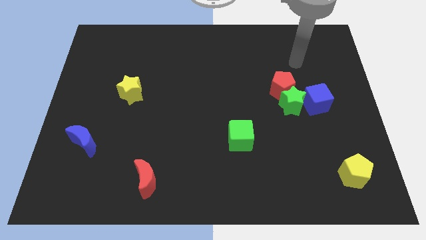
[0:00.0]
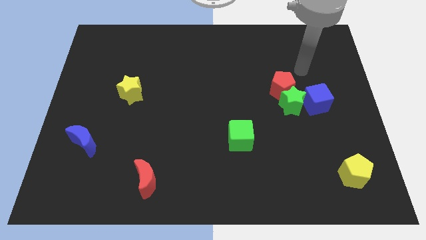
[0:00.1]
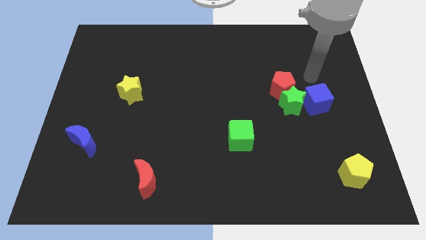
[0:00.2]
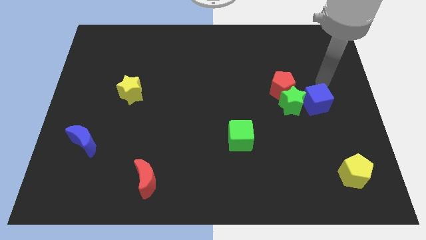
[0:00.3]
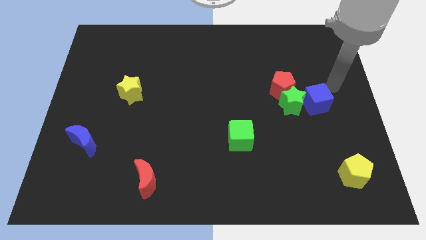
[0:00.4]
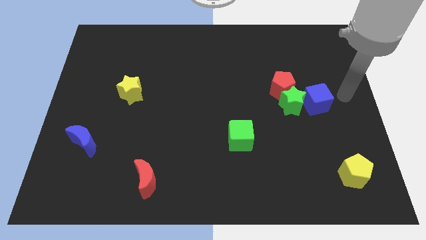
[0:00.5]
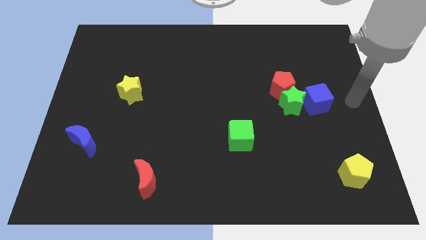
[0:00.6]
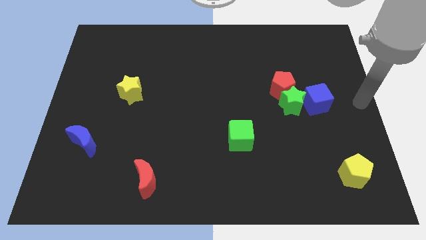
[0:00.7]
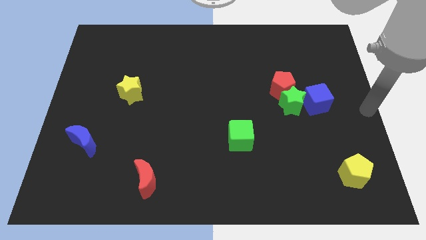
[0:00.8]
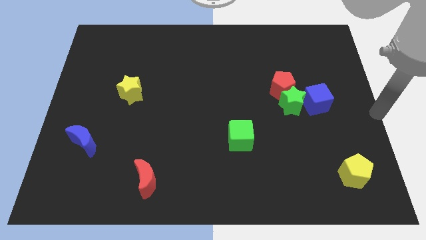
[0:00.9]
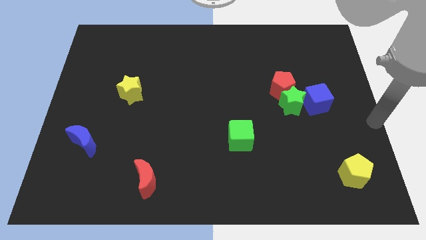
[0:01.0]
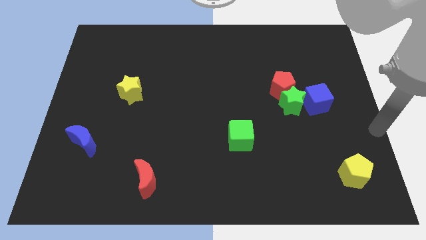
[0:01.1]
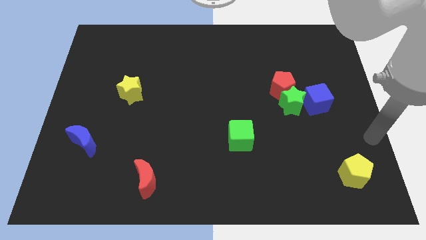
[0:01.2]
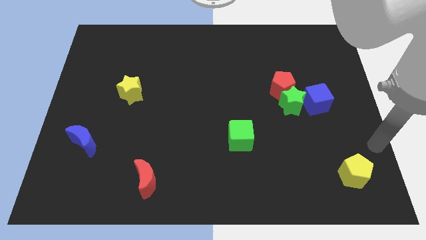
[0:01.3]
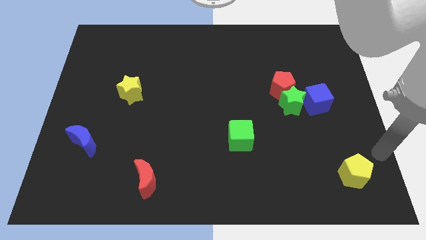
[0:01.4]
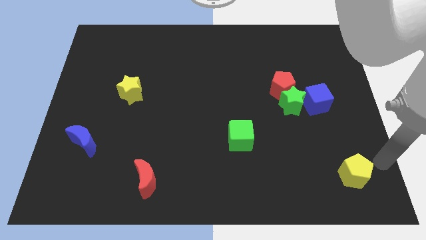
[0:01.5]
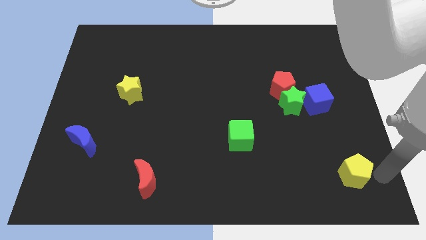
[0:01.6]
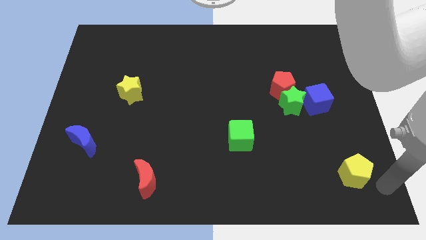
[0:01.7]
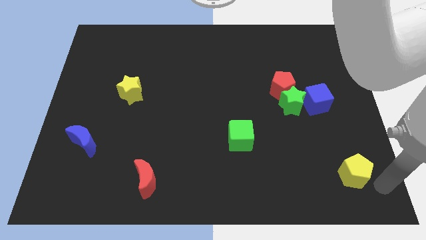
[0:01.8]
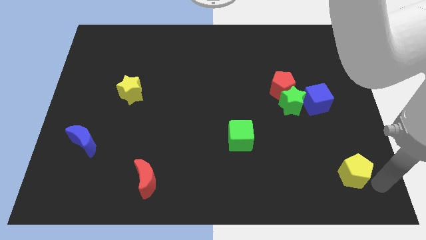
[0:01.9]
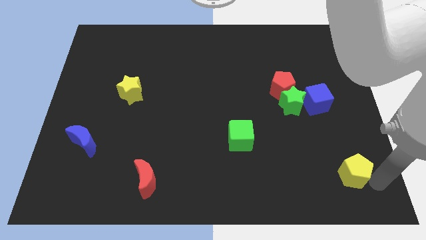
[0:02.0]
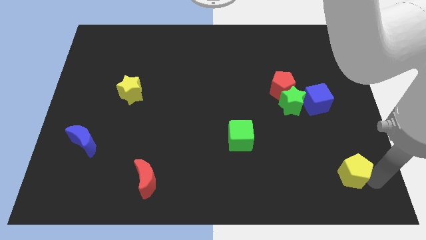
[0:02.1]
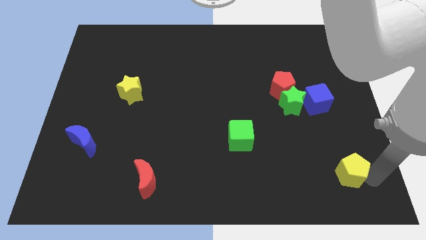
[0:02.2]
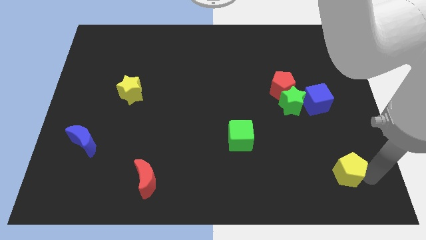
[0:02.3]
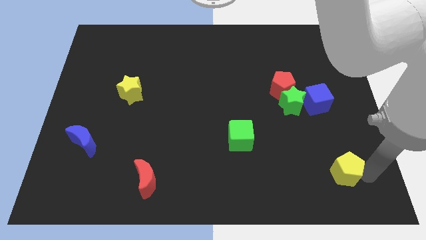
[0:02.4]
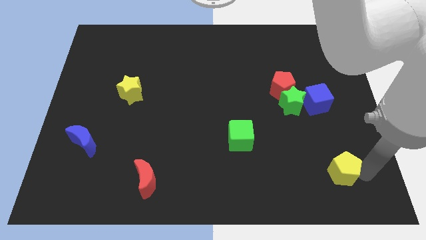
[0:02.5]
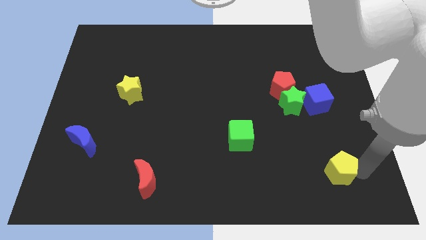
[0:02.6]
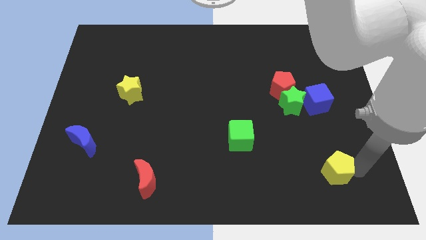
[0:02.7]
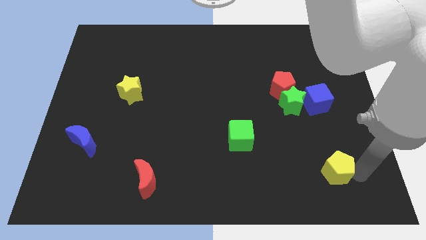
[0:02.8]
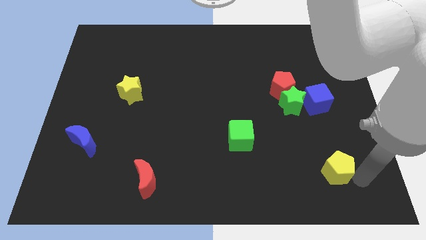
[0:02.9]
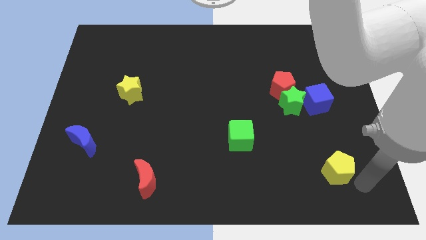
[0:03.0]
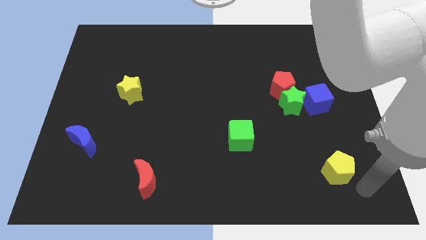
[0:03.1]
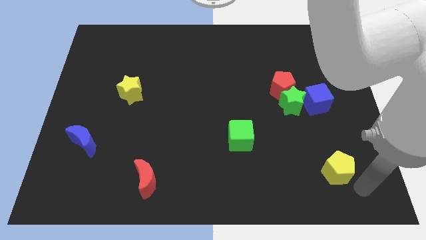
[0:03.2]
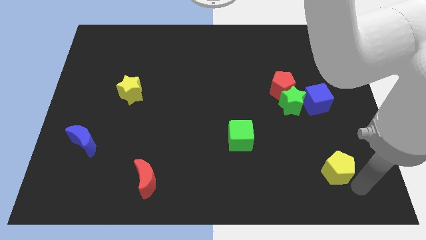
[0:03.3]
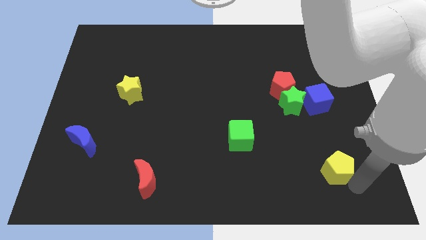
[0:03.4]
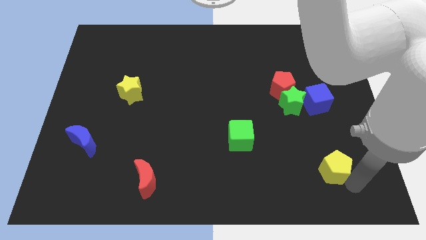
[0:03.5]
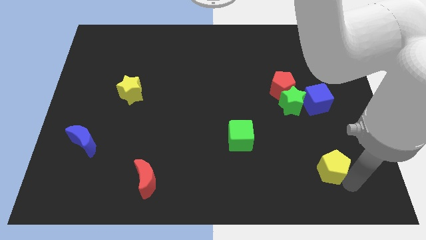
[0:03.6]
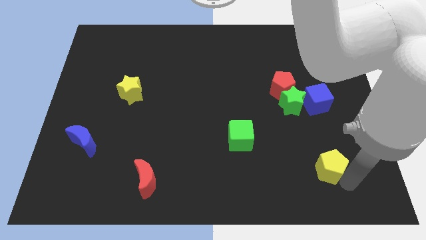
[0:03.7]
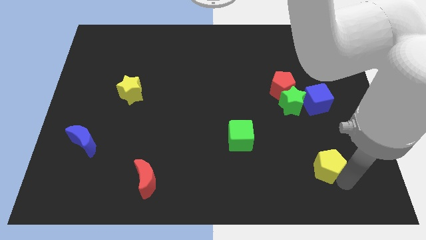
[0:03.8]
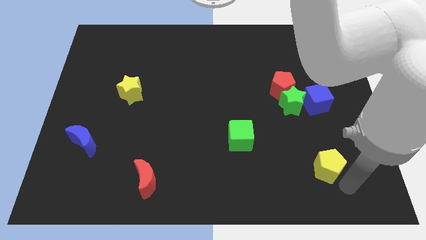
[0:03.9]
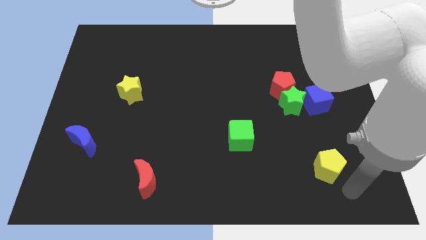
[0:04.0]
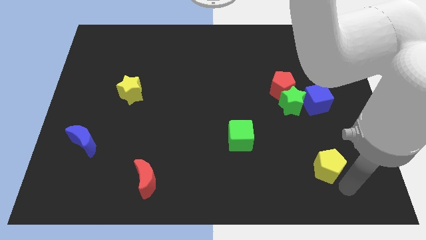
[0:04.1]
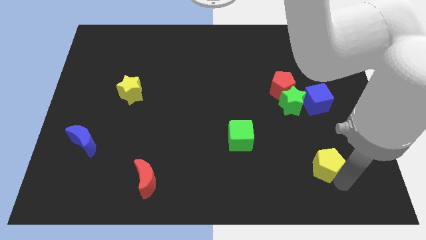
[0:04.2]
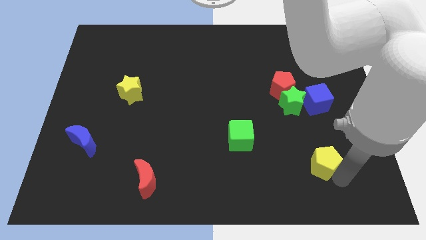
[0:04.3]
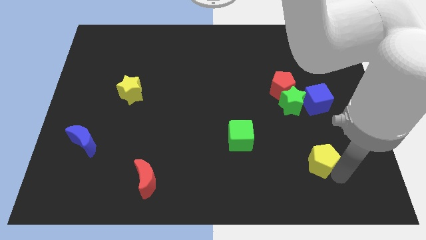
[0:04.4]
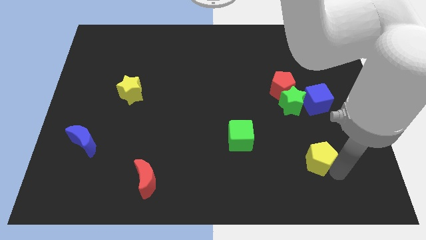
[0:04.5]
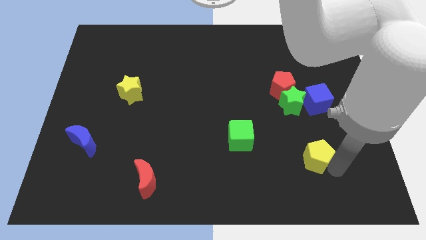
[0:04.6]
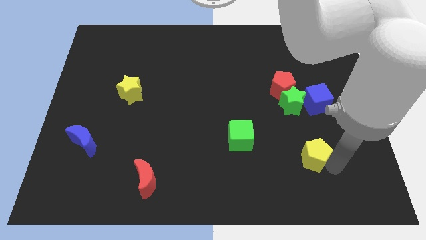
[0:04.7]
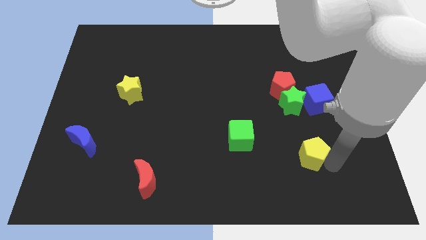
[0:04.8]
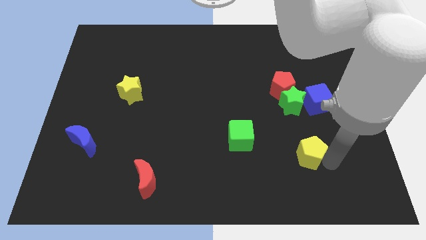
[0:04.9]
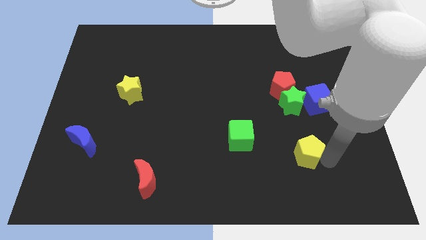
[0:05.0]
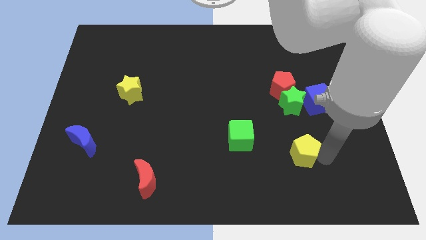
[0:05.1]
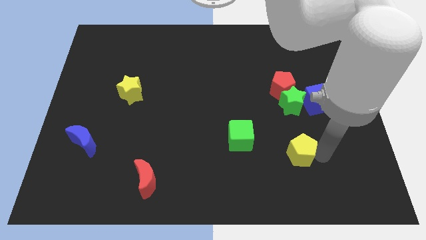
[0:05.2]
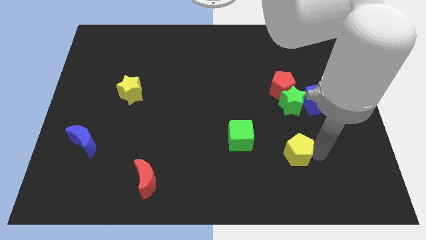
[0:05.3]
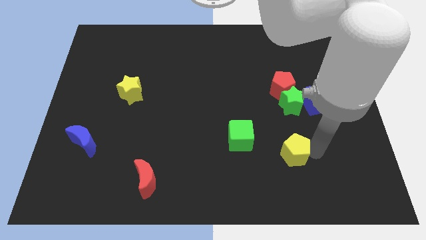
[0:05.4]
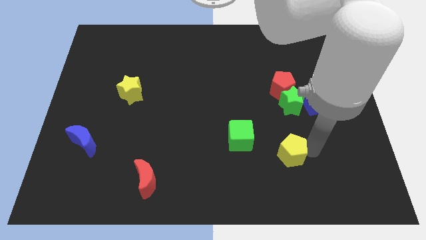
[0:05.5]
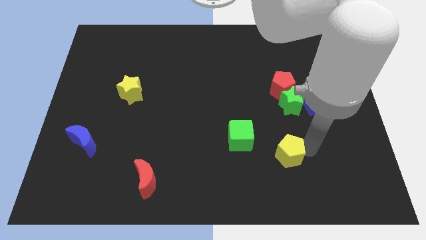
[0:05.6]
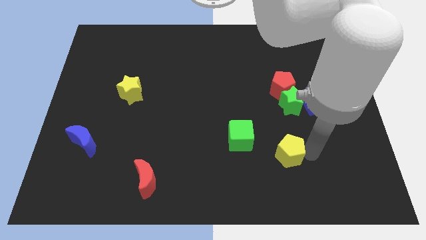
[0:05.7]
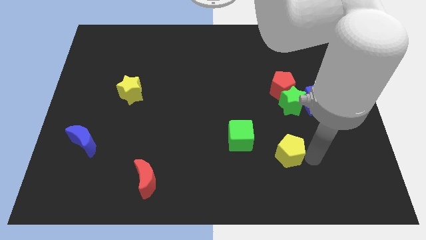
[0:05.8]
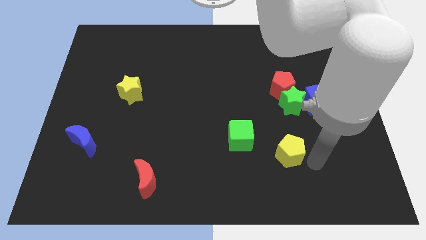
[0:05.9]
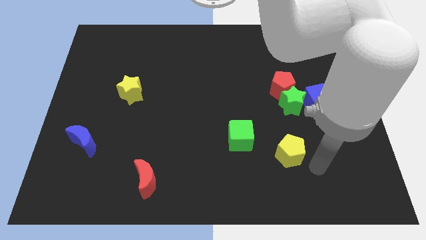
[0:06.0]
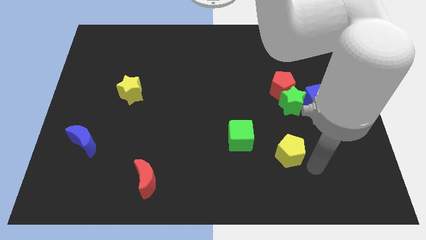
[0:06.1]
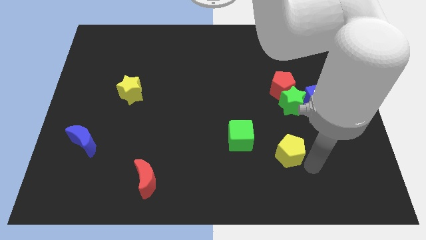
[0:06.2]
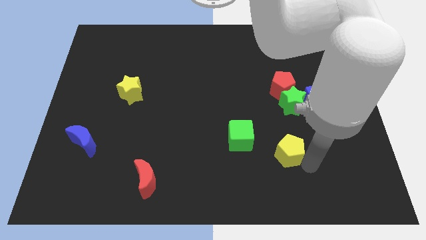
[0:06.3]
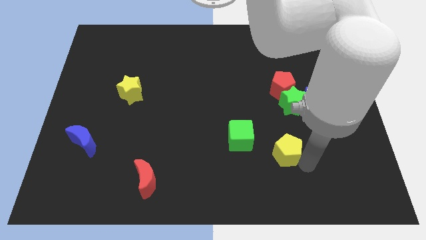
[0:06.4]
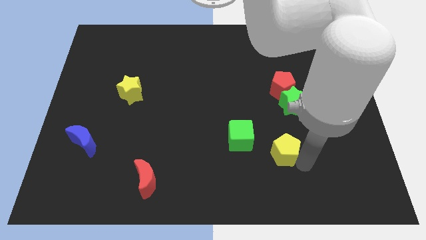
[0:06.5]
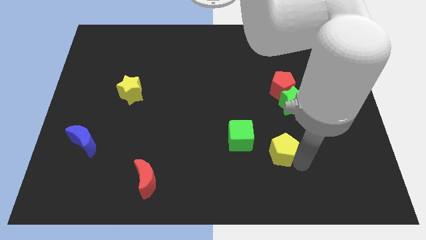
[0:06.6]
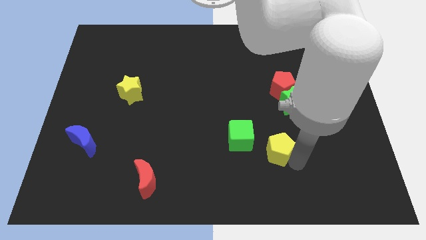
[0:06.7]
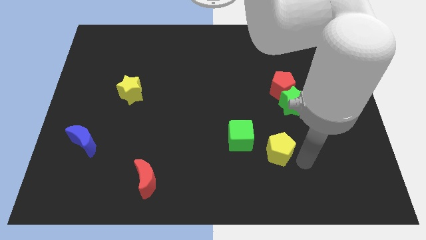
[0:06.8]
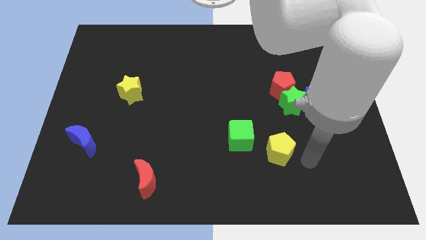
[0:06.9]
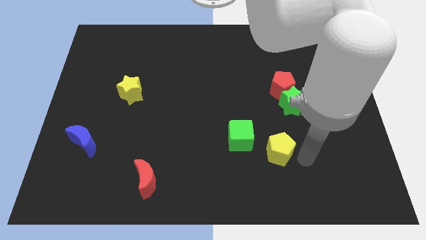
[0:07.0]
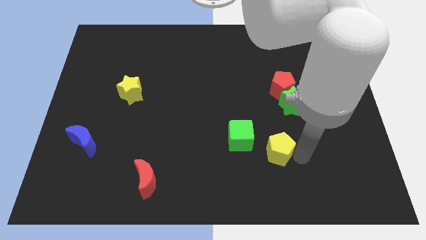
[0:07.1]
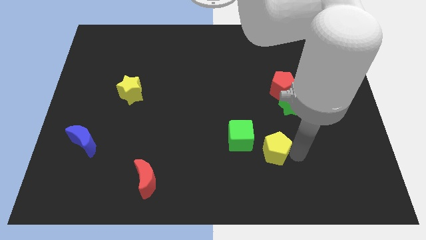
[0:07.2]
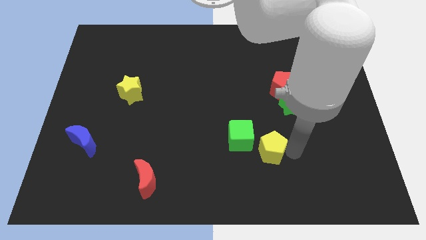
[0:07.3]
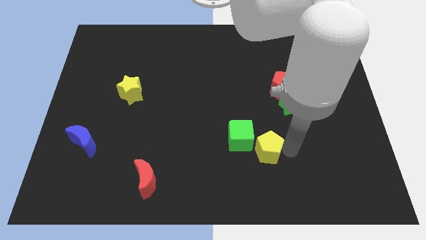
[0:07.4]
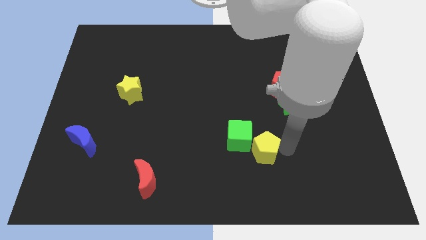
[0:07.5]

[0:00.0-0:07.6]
slide the yellow pentagon next to the green cube
